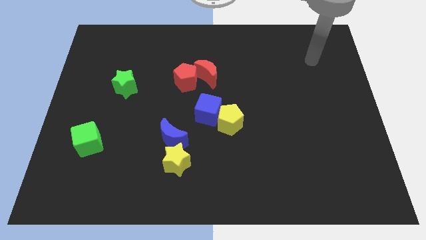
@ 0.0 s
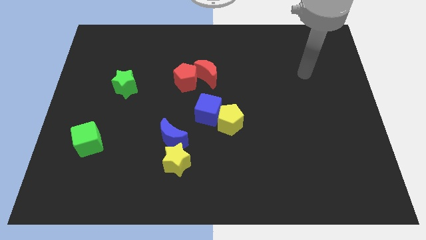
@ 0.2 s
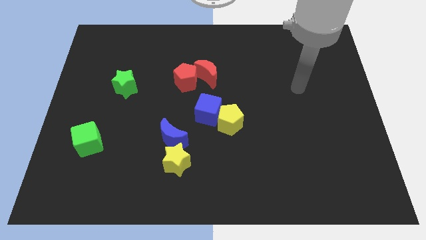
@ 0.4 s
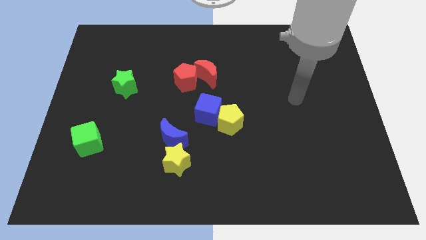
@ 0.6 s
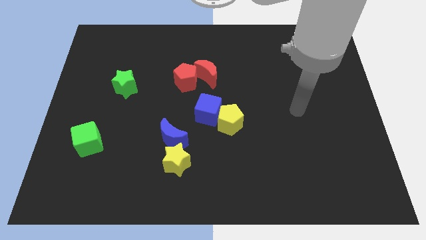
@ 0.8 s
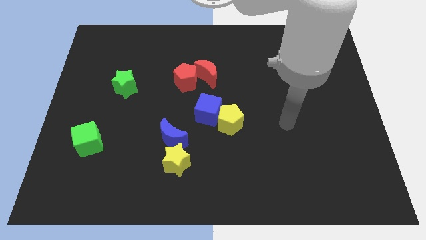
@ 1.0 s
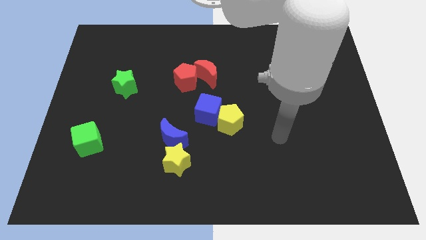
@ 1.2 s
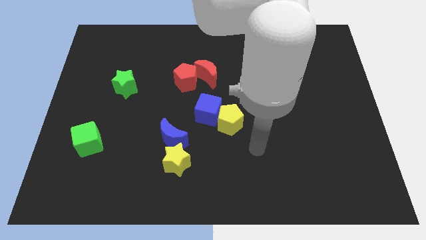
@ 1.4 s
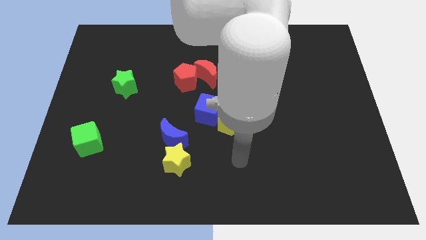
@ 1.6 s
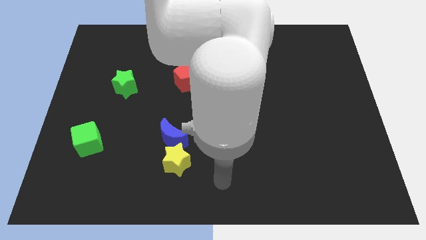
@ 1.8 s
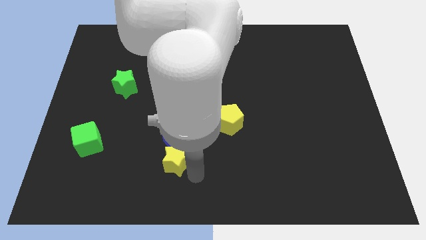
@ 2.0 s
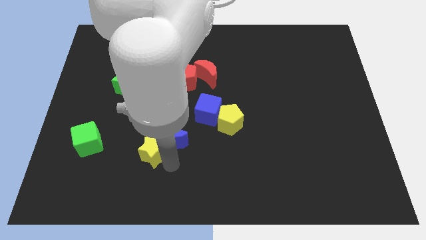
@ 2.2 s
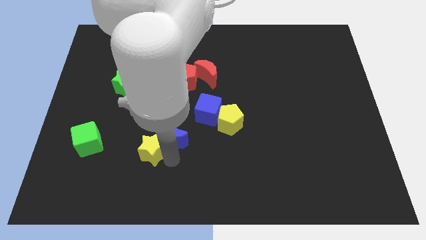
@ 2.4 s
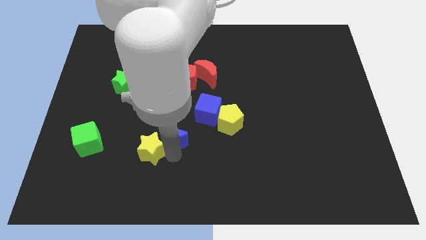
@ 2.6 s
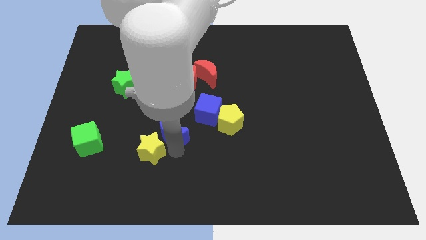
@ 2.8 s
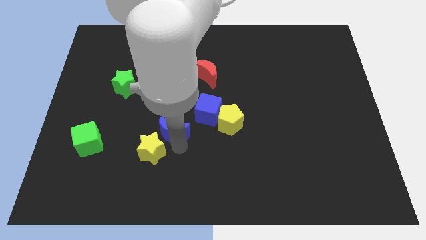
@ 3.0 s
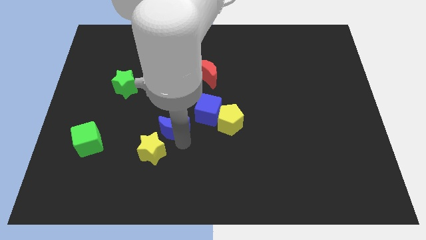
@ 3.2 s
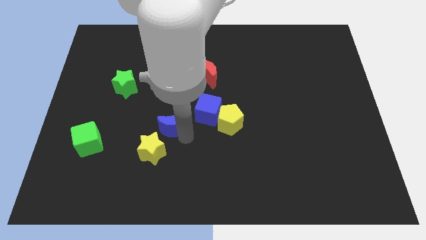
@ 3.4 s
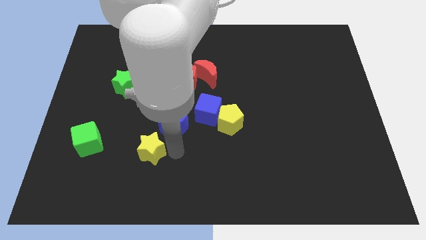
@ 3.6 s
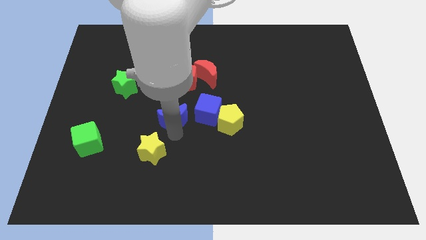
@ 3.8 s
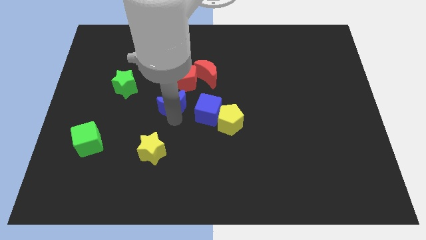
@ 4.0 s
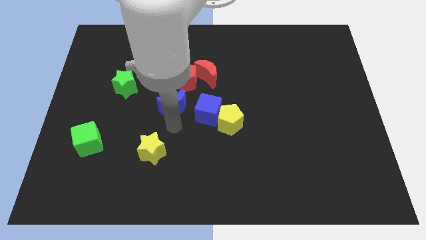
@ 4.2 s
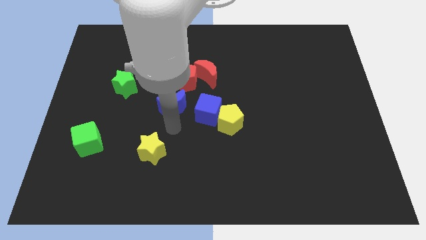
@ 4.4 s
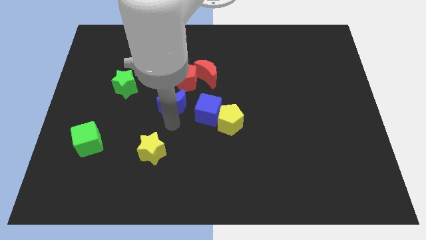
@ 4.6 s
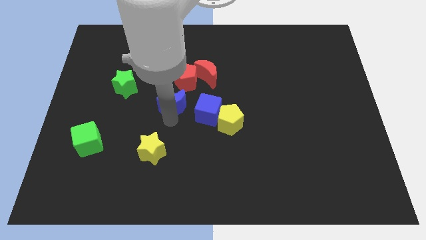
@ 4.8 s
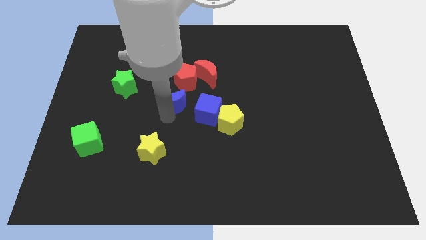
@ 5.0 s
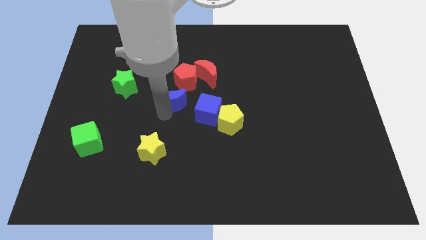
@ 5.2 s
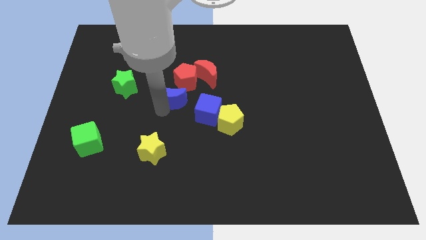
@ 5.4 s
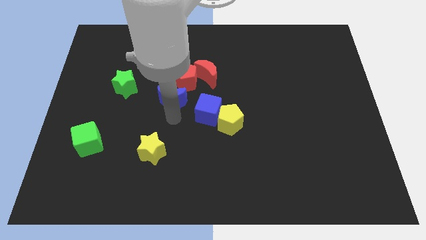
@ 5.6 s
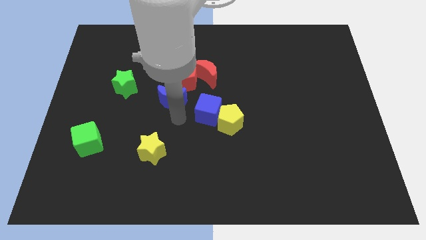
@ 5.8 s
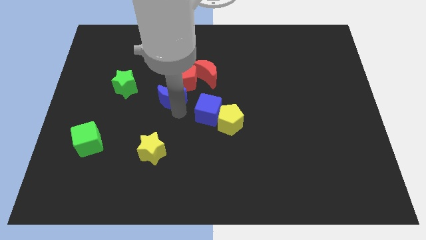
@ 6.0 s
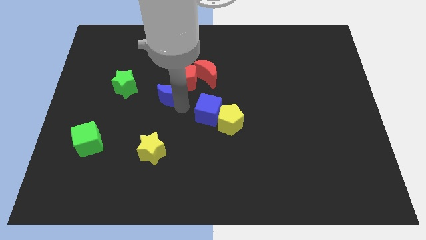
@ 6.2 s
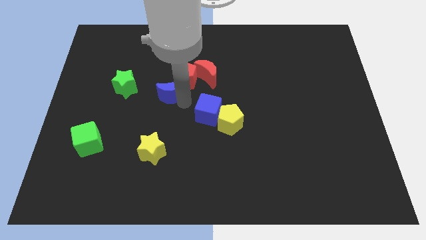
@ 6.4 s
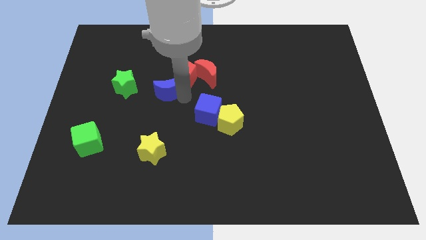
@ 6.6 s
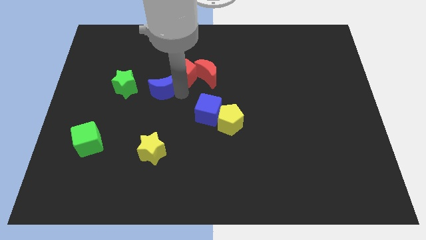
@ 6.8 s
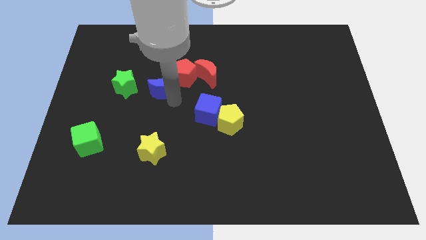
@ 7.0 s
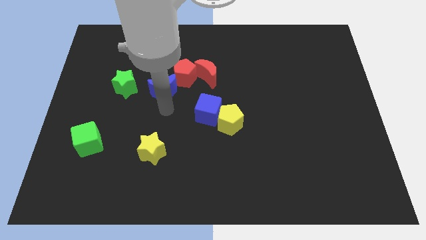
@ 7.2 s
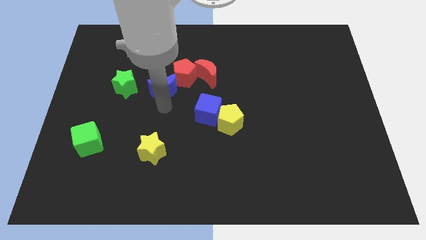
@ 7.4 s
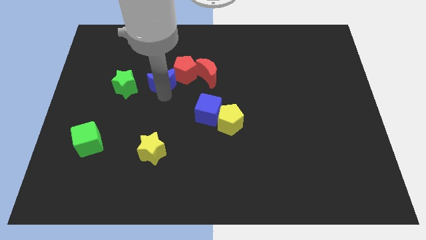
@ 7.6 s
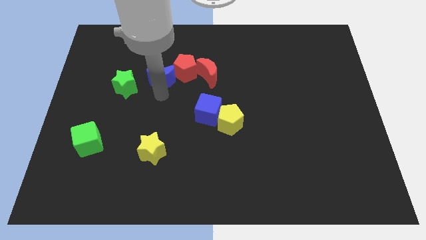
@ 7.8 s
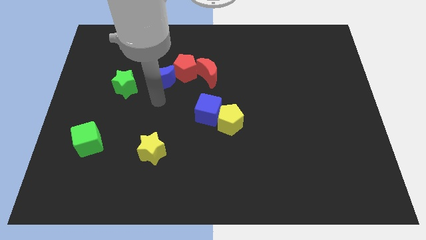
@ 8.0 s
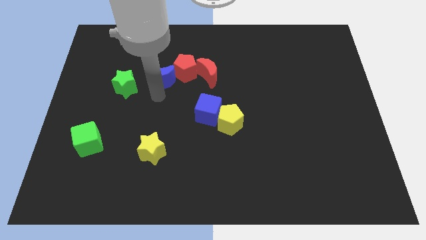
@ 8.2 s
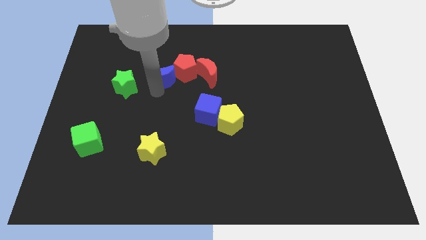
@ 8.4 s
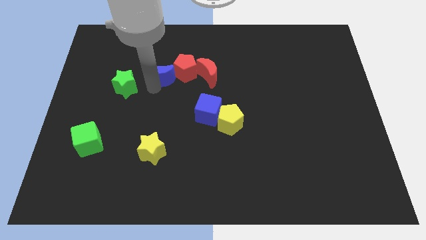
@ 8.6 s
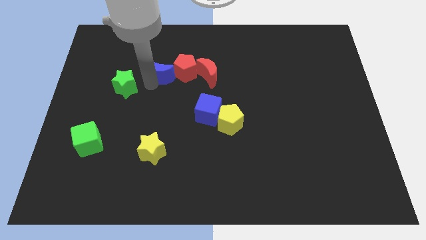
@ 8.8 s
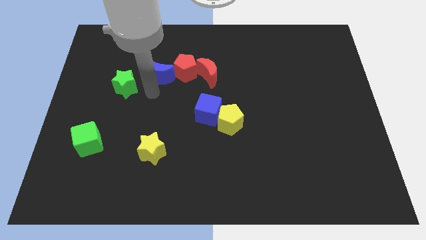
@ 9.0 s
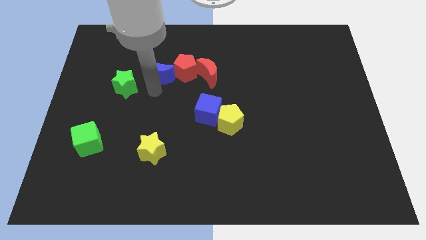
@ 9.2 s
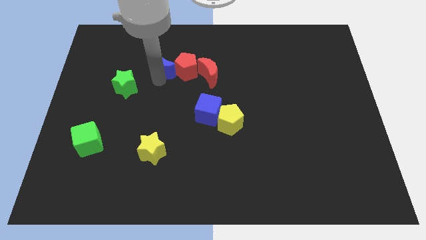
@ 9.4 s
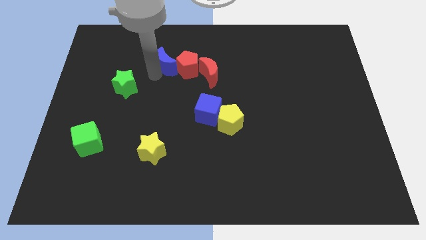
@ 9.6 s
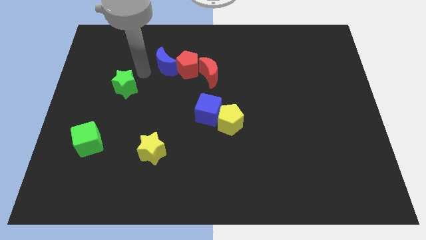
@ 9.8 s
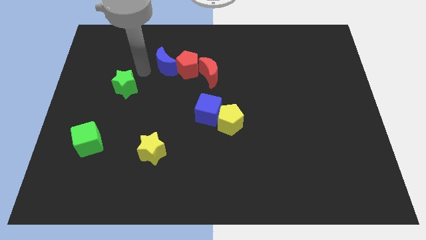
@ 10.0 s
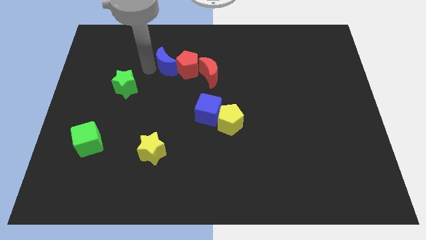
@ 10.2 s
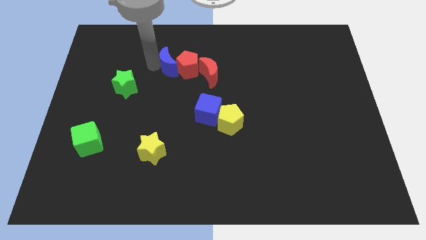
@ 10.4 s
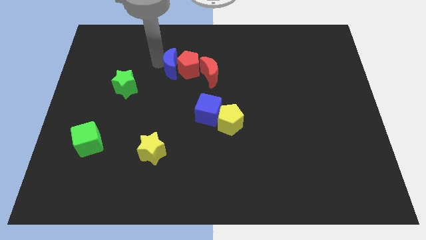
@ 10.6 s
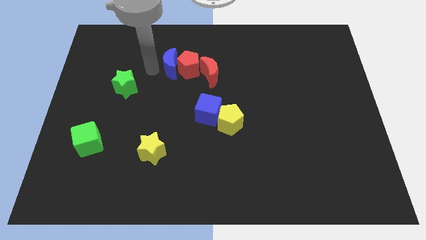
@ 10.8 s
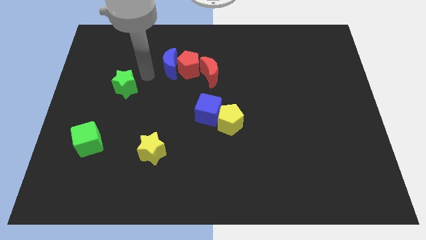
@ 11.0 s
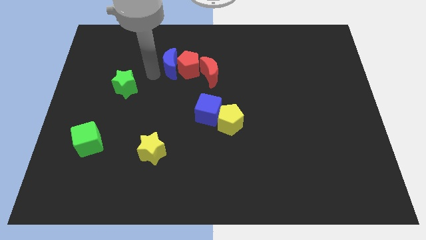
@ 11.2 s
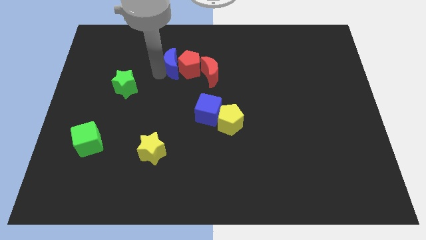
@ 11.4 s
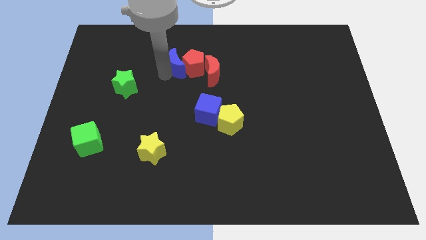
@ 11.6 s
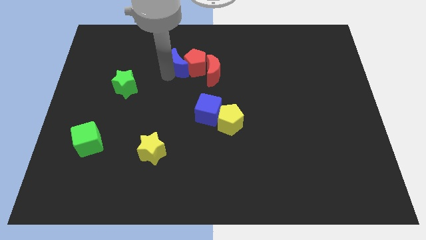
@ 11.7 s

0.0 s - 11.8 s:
slide the blue moon to the top left of the red moon

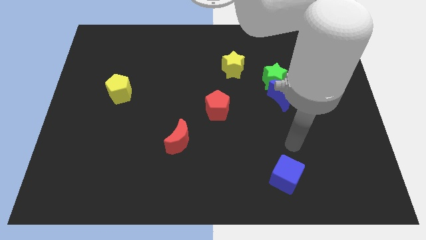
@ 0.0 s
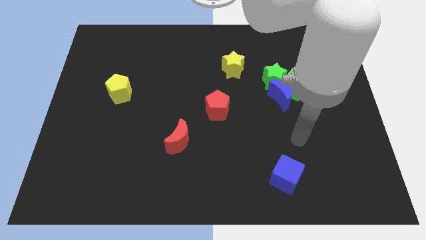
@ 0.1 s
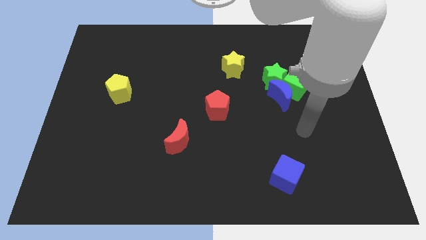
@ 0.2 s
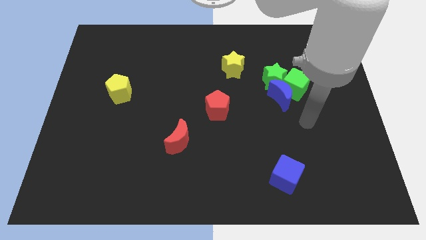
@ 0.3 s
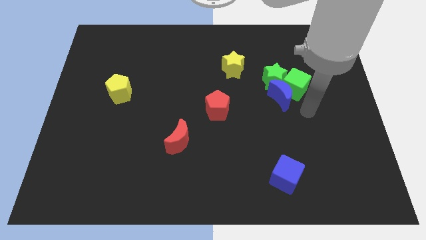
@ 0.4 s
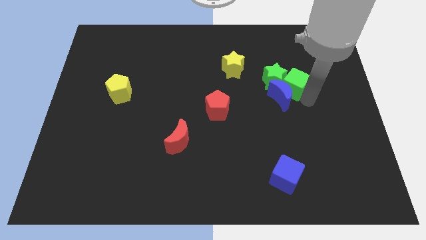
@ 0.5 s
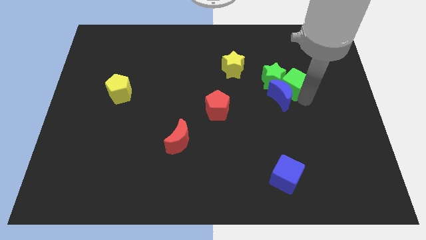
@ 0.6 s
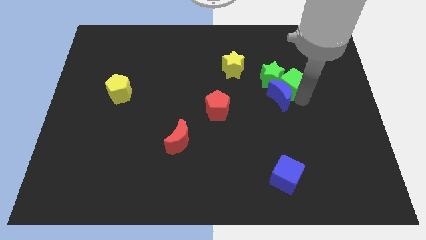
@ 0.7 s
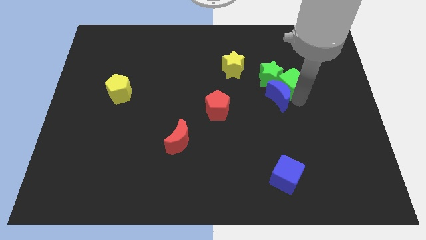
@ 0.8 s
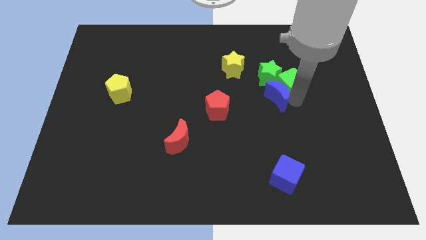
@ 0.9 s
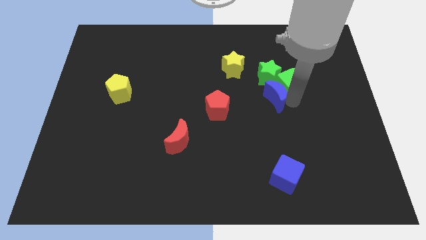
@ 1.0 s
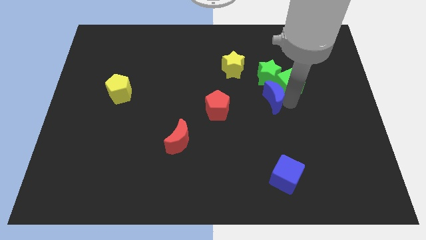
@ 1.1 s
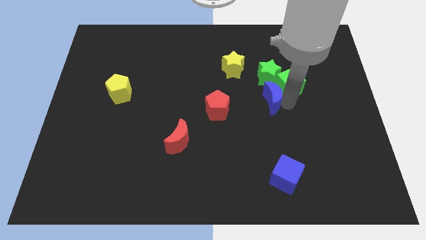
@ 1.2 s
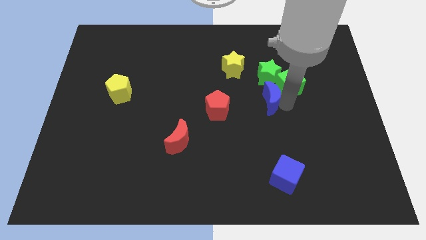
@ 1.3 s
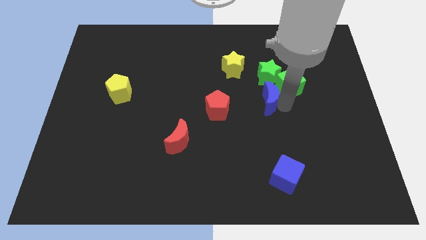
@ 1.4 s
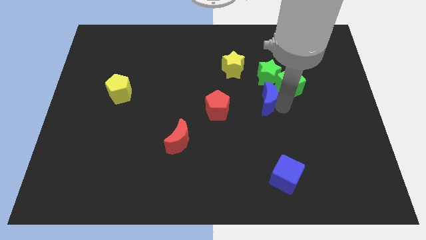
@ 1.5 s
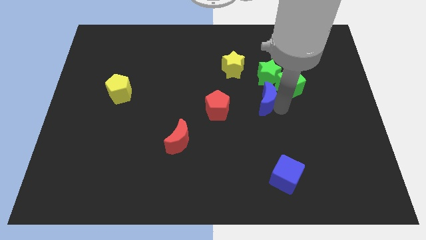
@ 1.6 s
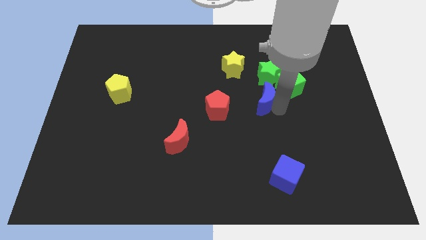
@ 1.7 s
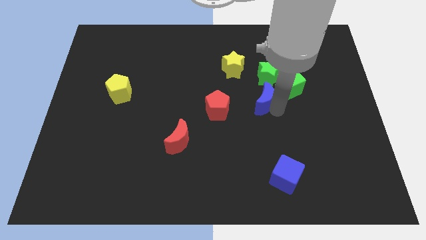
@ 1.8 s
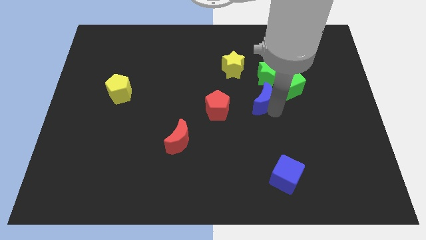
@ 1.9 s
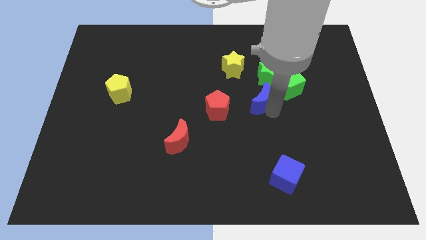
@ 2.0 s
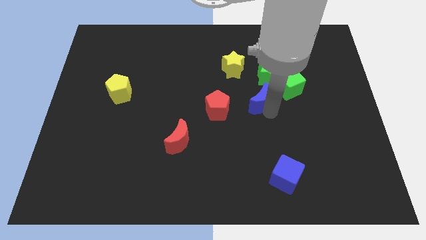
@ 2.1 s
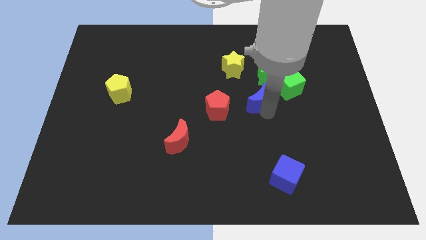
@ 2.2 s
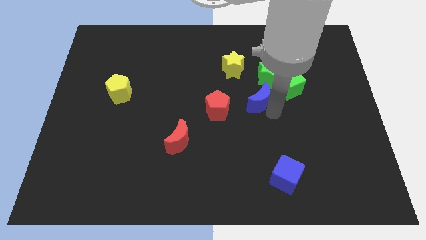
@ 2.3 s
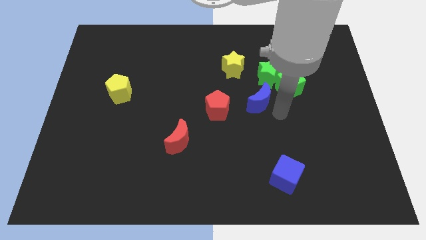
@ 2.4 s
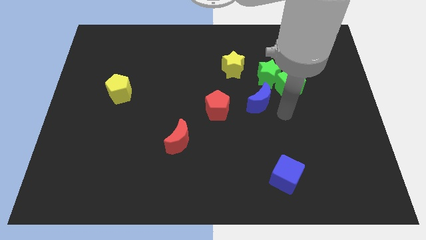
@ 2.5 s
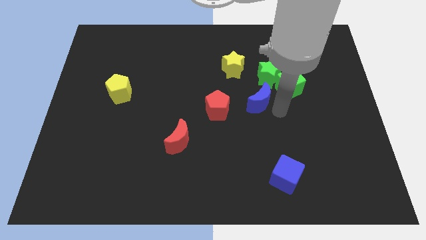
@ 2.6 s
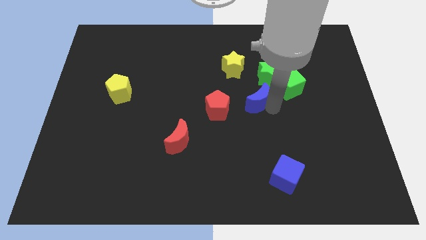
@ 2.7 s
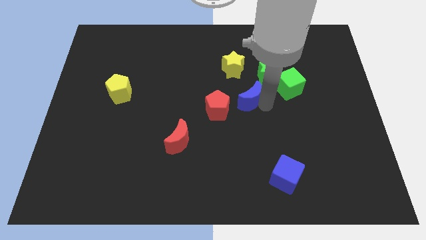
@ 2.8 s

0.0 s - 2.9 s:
slide the blue moon to the top right of the red pentagon
